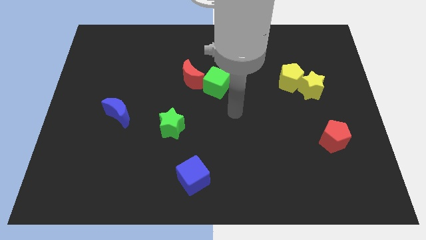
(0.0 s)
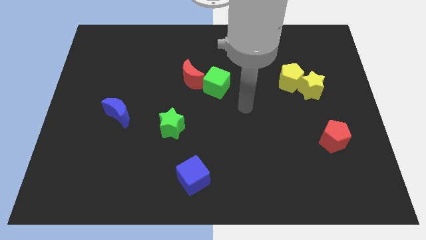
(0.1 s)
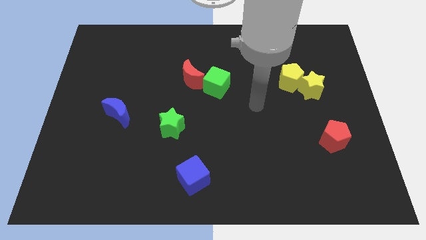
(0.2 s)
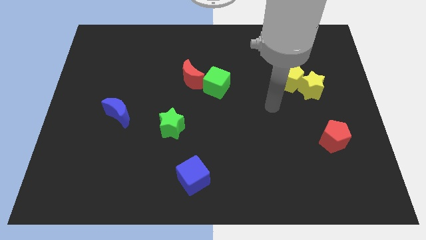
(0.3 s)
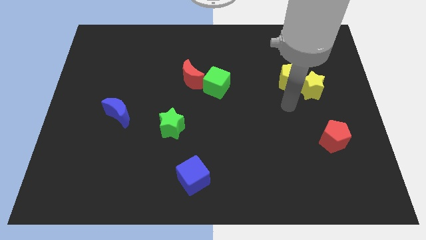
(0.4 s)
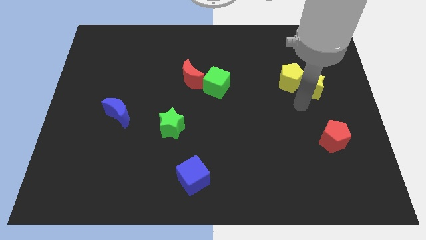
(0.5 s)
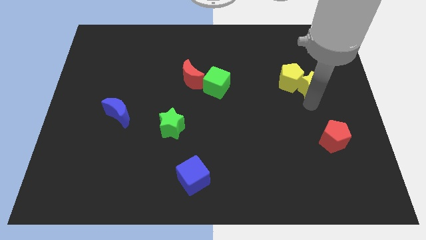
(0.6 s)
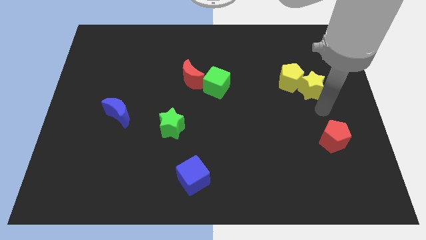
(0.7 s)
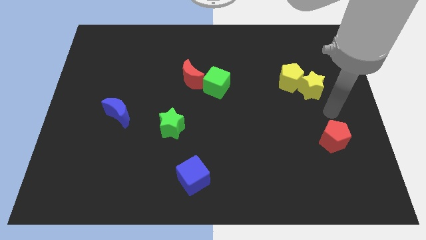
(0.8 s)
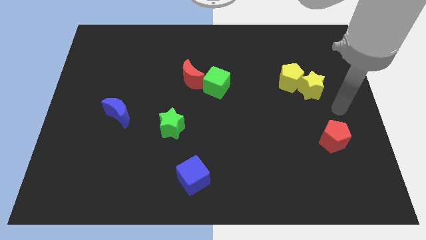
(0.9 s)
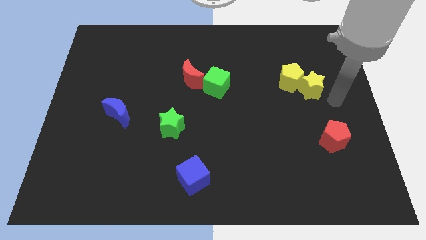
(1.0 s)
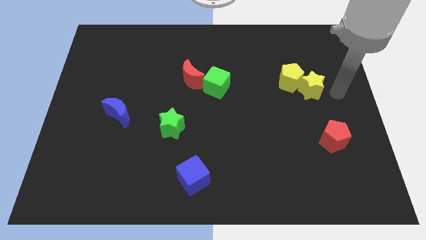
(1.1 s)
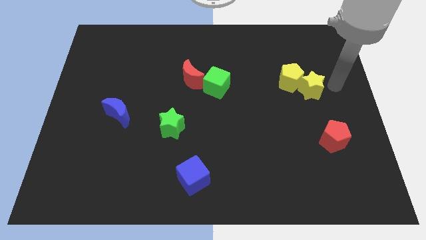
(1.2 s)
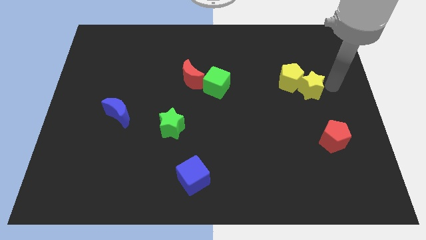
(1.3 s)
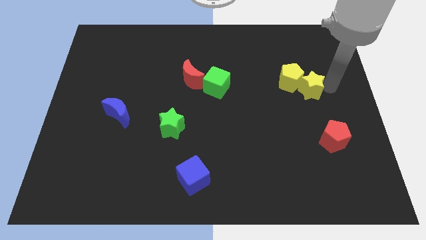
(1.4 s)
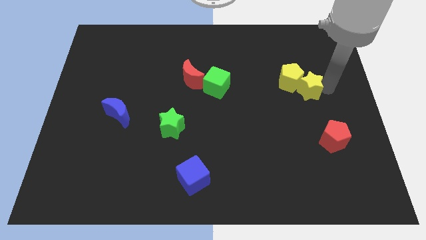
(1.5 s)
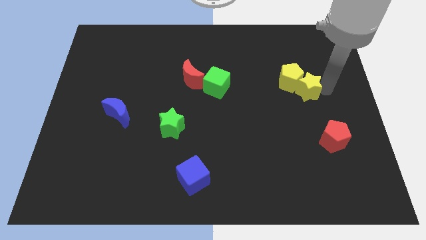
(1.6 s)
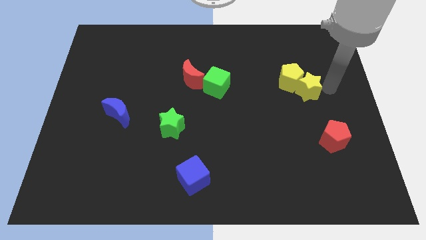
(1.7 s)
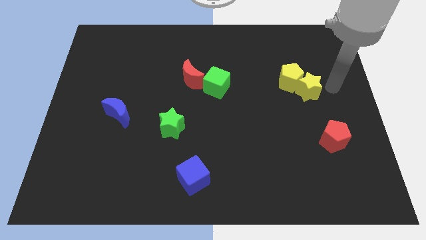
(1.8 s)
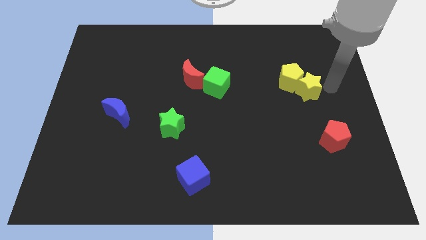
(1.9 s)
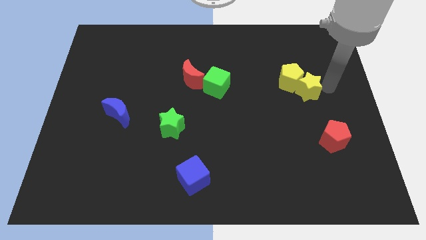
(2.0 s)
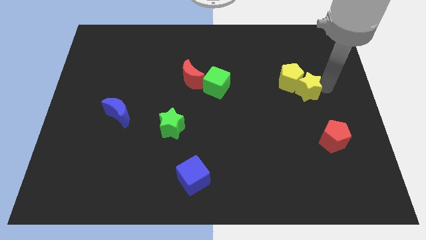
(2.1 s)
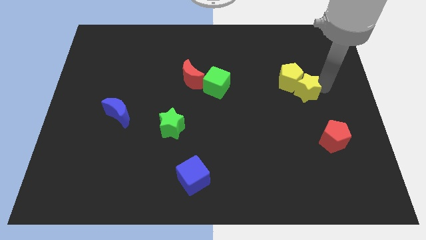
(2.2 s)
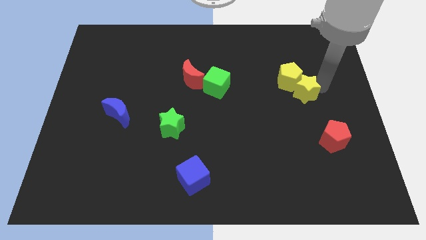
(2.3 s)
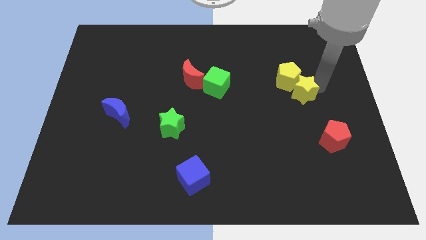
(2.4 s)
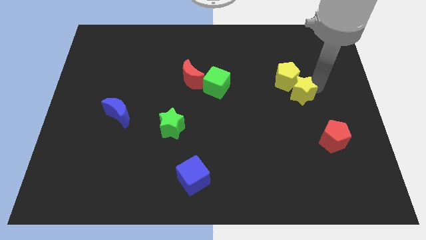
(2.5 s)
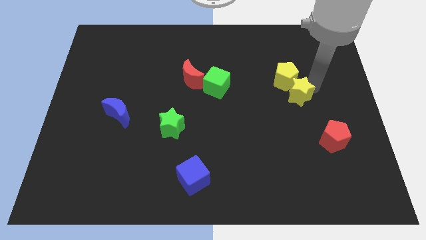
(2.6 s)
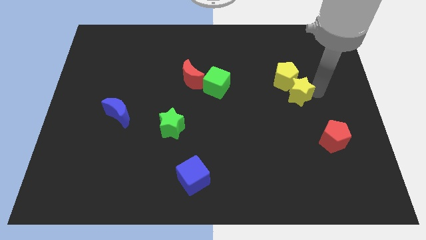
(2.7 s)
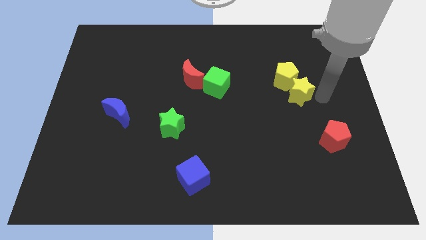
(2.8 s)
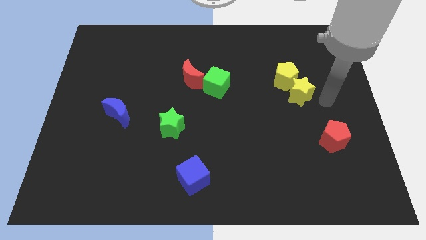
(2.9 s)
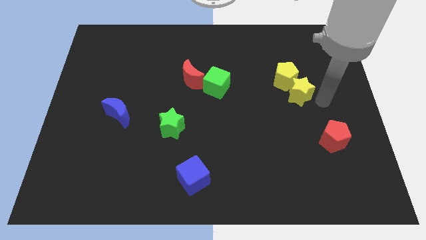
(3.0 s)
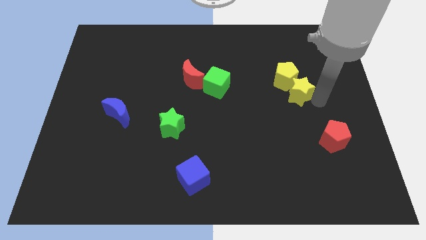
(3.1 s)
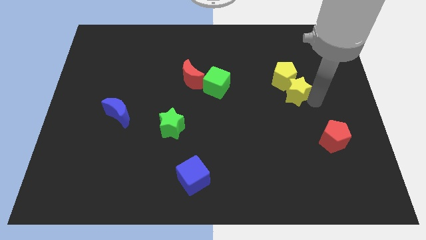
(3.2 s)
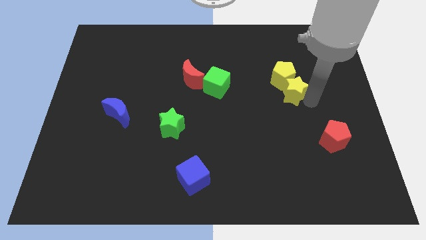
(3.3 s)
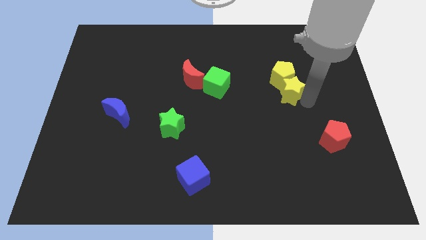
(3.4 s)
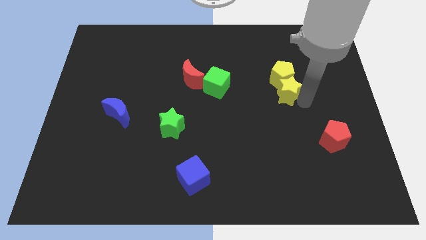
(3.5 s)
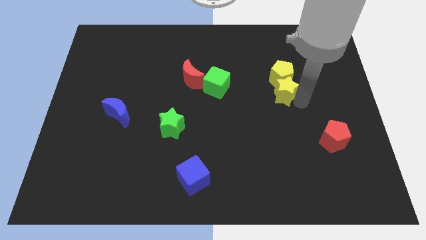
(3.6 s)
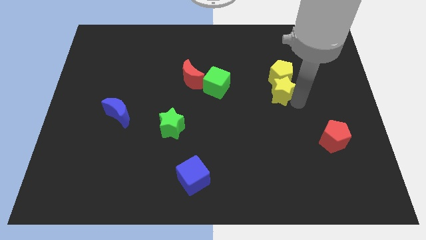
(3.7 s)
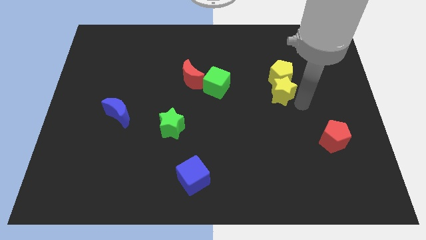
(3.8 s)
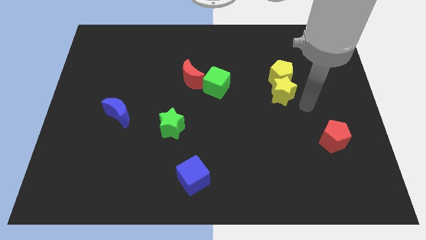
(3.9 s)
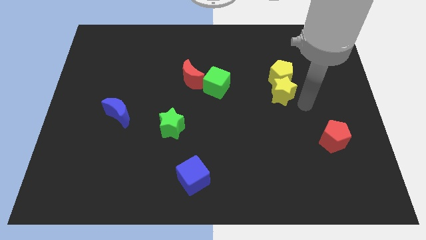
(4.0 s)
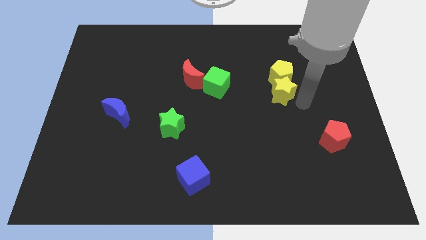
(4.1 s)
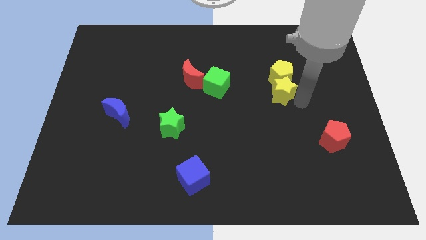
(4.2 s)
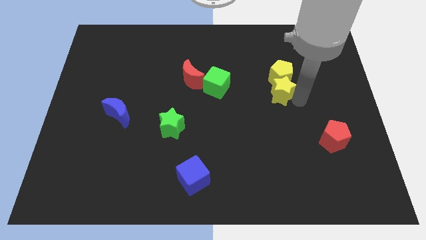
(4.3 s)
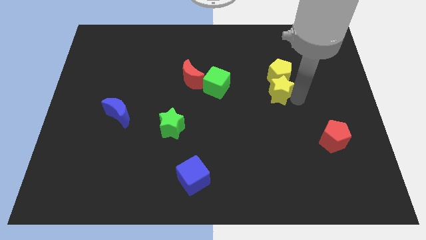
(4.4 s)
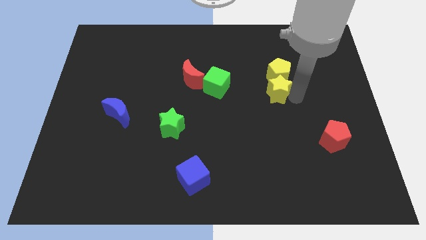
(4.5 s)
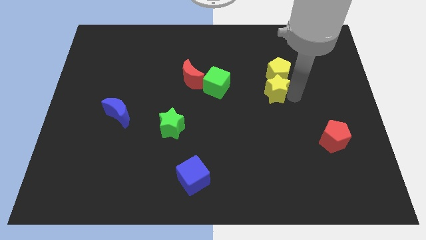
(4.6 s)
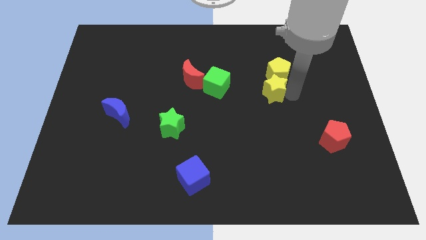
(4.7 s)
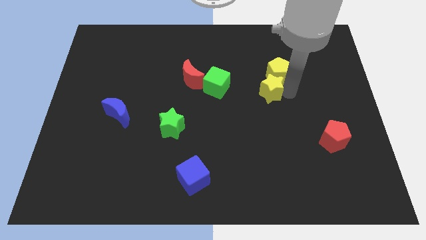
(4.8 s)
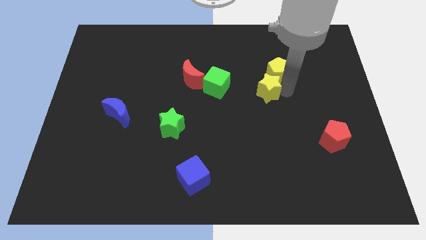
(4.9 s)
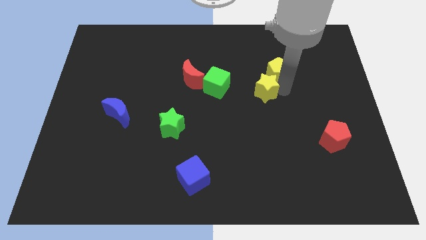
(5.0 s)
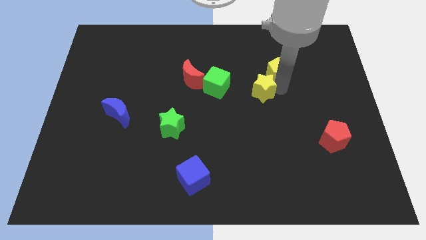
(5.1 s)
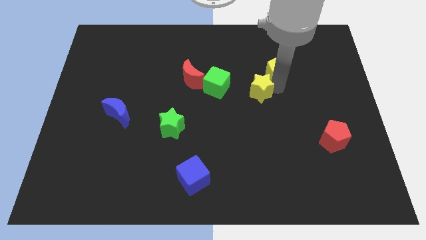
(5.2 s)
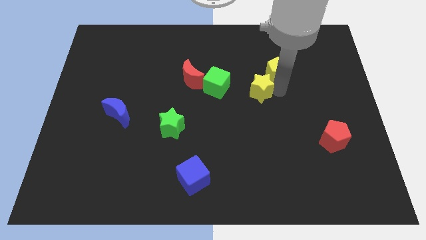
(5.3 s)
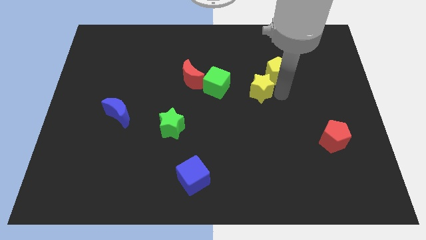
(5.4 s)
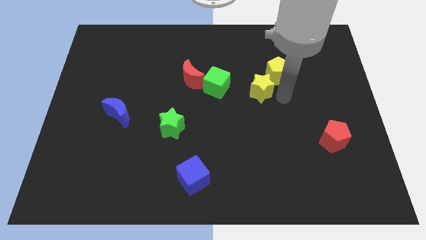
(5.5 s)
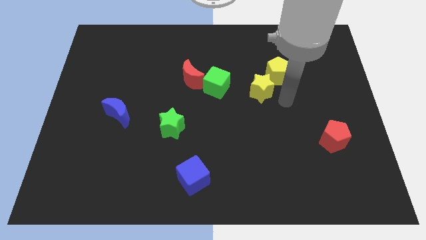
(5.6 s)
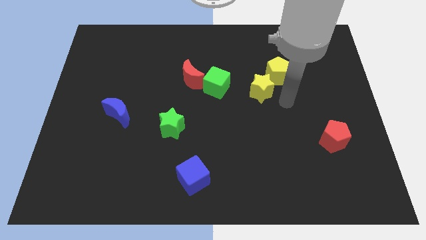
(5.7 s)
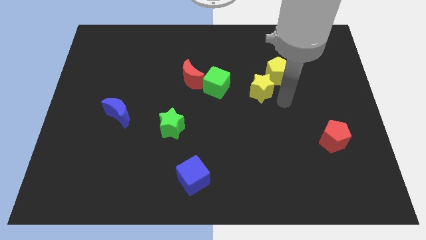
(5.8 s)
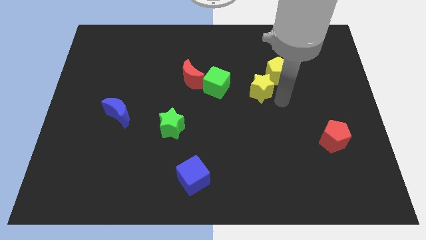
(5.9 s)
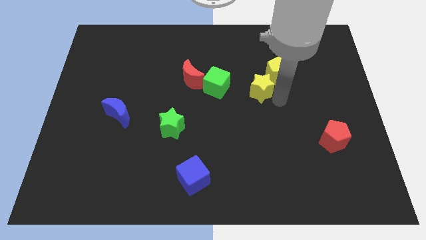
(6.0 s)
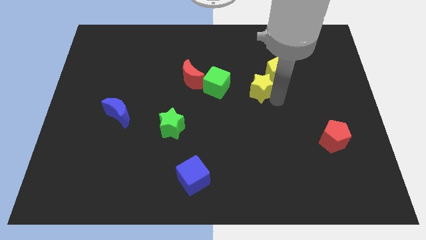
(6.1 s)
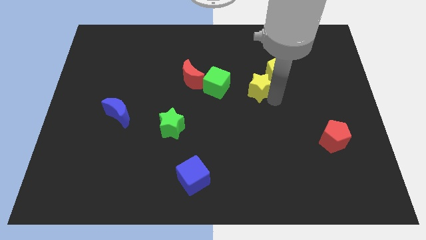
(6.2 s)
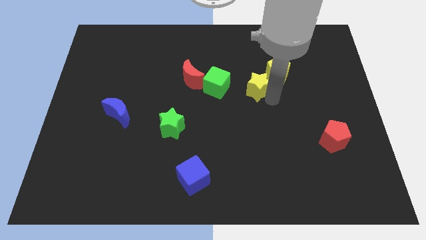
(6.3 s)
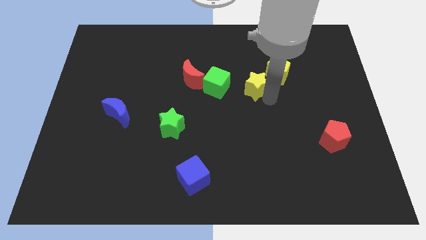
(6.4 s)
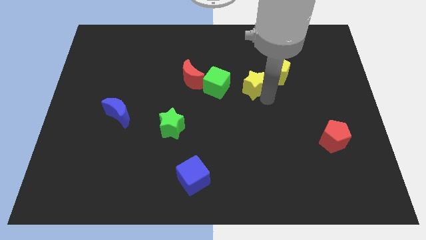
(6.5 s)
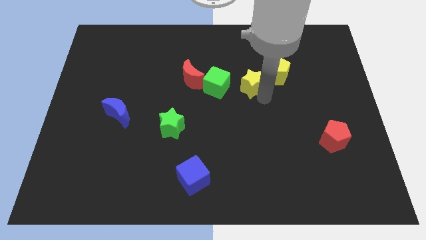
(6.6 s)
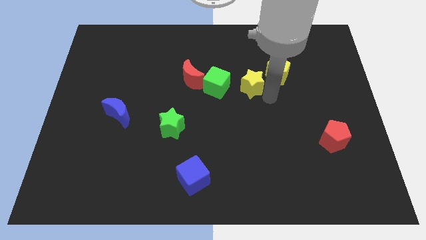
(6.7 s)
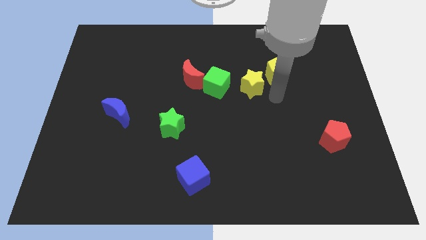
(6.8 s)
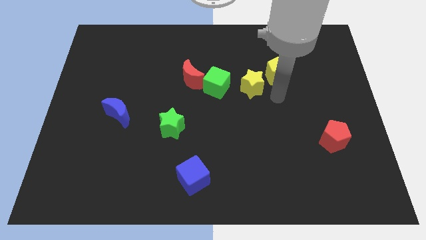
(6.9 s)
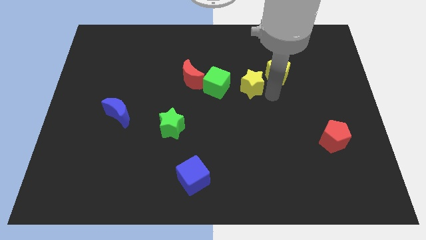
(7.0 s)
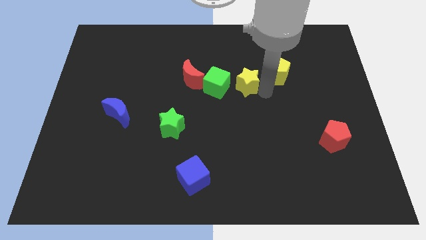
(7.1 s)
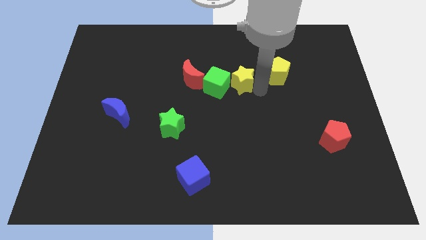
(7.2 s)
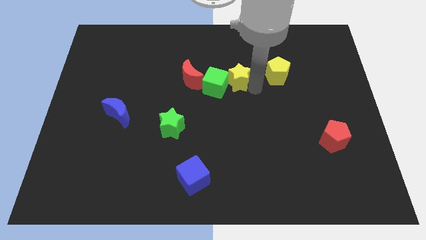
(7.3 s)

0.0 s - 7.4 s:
put the yellow star close to the green cube
